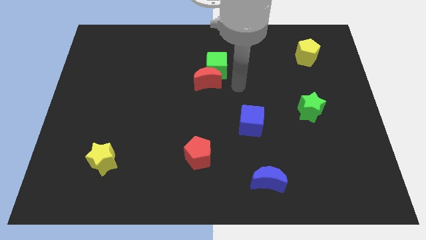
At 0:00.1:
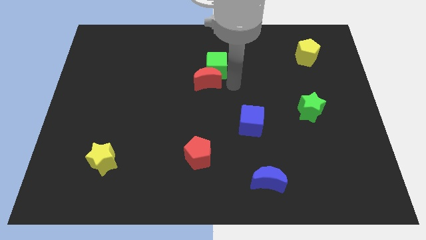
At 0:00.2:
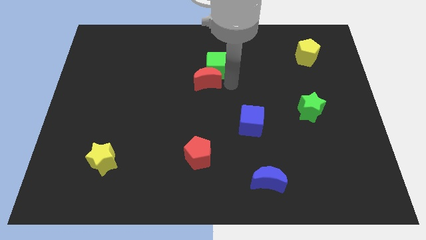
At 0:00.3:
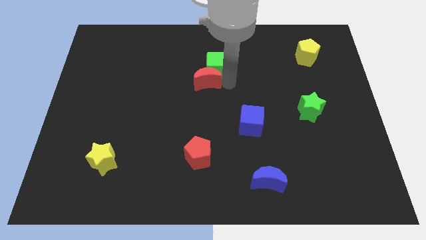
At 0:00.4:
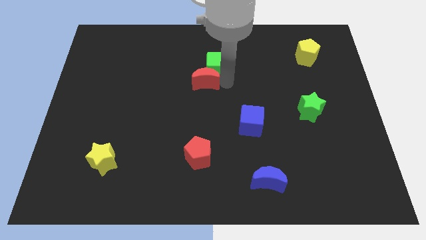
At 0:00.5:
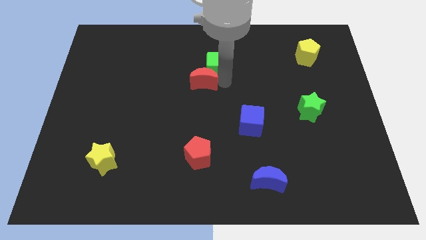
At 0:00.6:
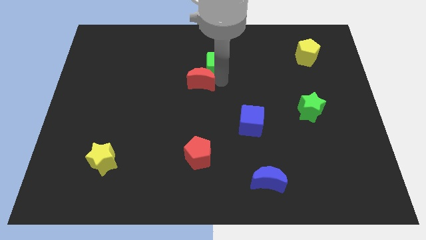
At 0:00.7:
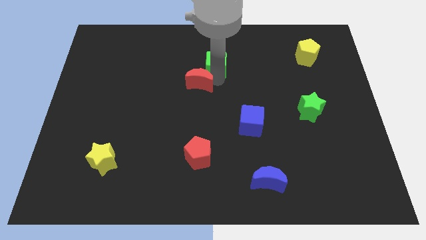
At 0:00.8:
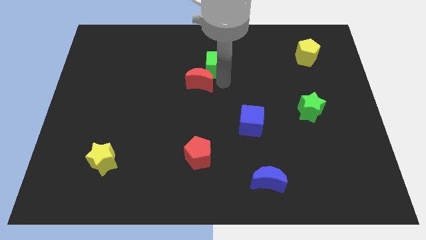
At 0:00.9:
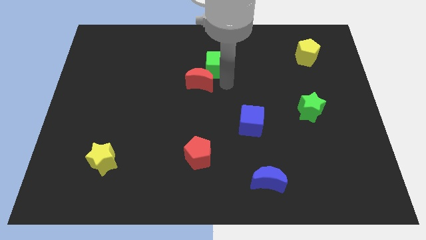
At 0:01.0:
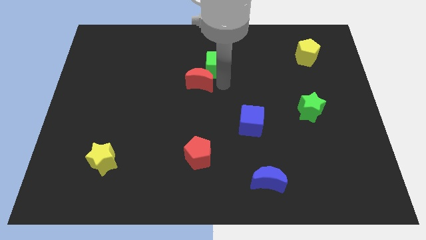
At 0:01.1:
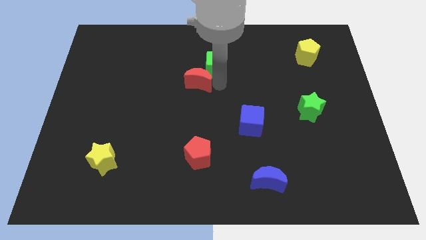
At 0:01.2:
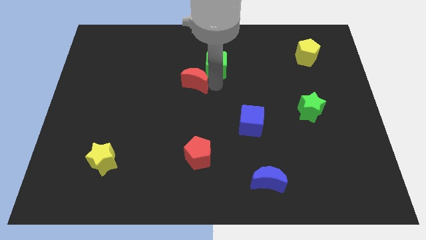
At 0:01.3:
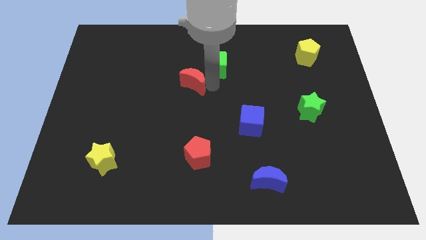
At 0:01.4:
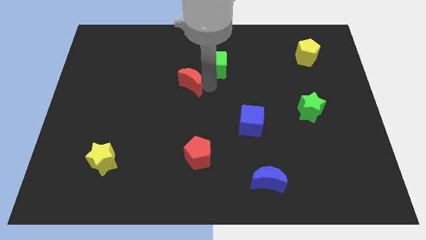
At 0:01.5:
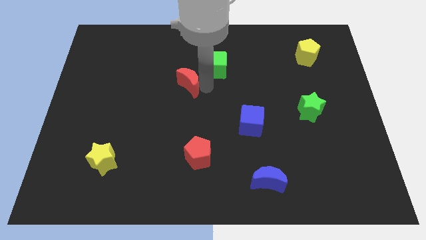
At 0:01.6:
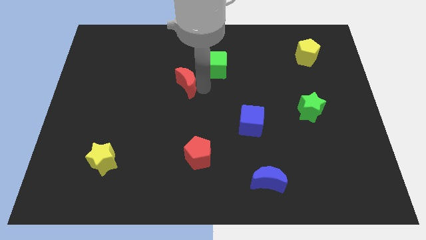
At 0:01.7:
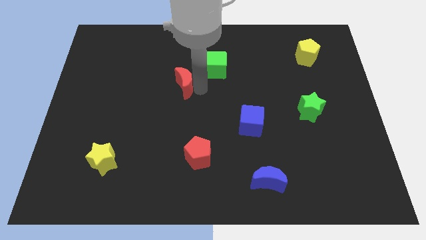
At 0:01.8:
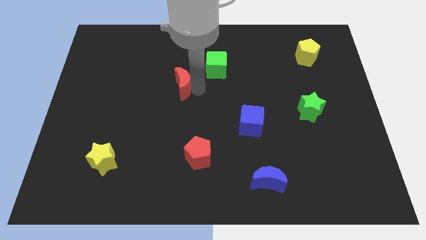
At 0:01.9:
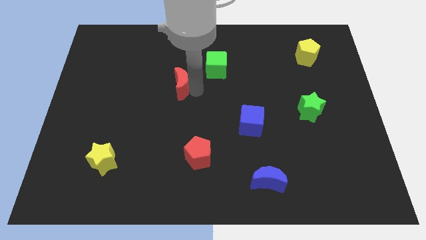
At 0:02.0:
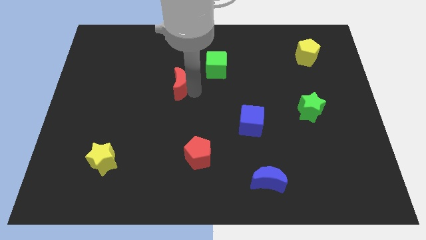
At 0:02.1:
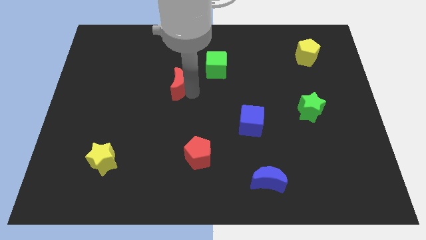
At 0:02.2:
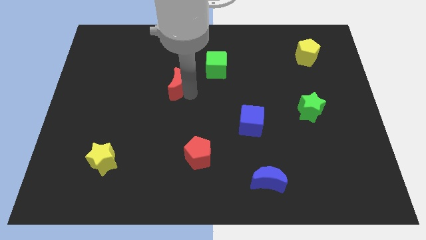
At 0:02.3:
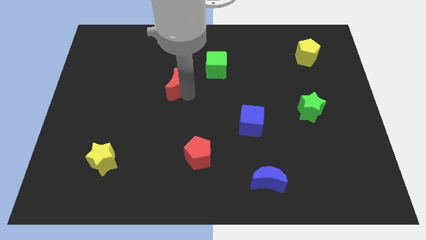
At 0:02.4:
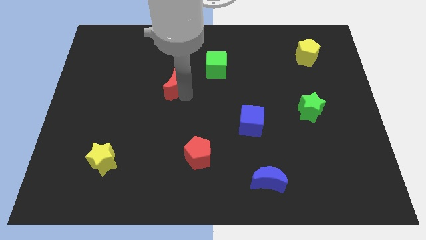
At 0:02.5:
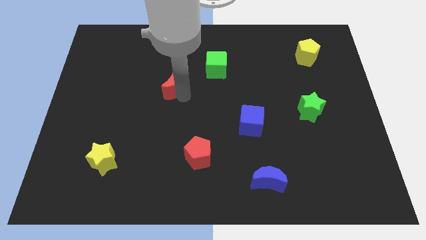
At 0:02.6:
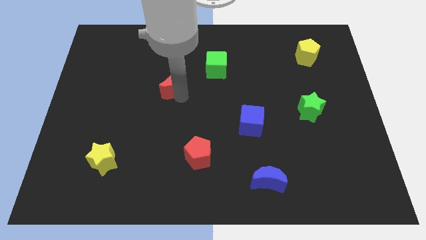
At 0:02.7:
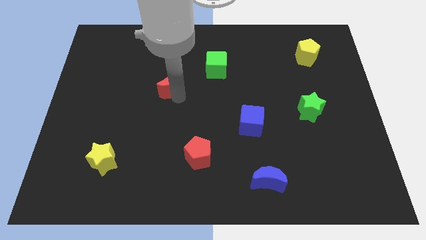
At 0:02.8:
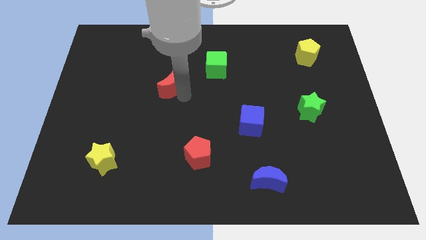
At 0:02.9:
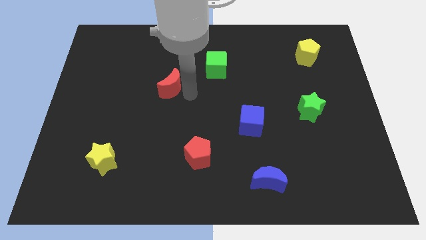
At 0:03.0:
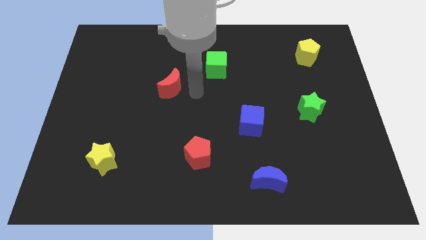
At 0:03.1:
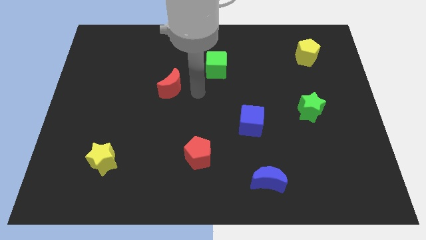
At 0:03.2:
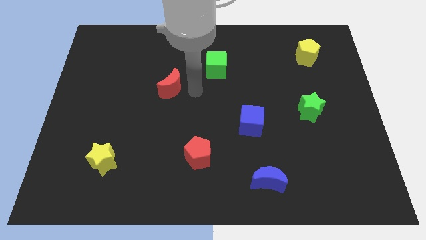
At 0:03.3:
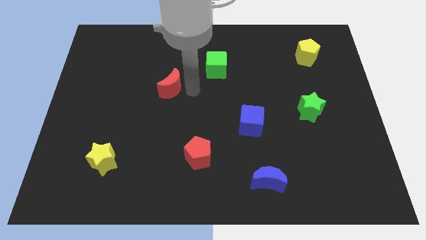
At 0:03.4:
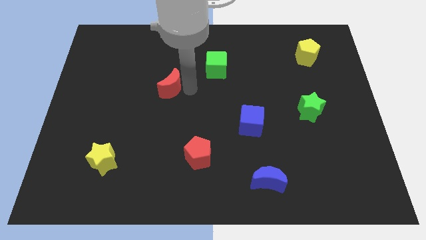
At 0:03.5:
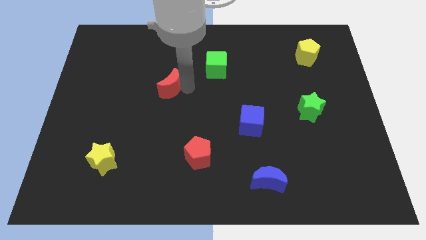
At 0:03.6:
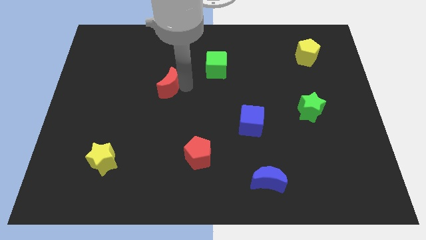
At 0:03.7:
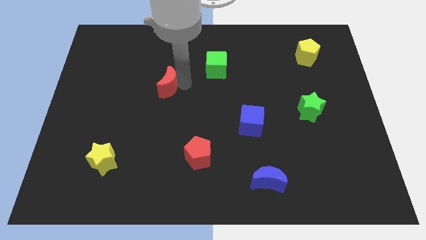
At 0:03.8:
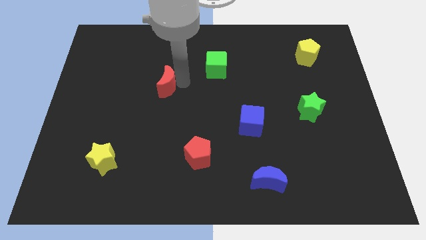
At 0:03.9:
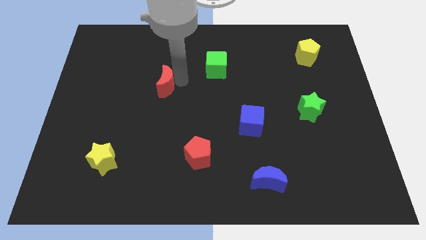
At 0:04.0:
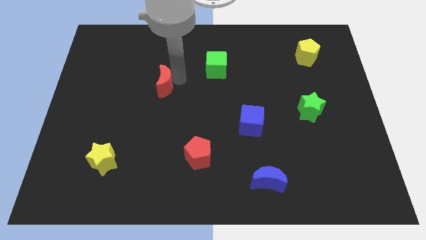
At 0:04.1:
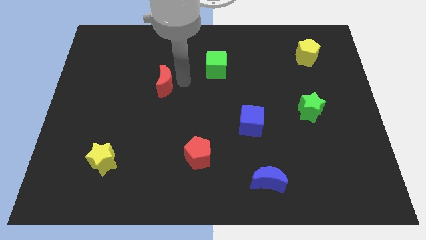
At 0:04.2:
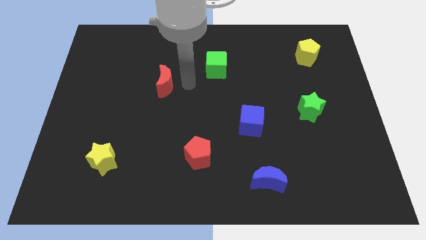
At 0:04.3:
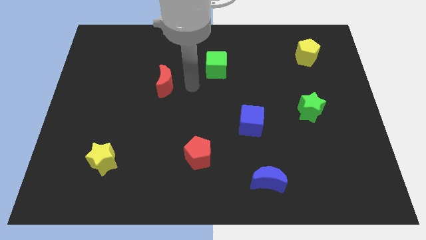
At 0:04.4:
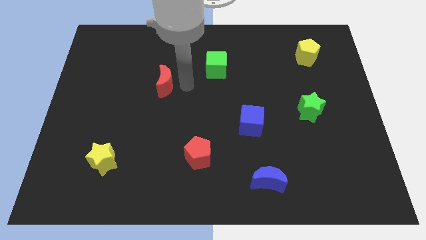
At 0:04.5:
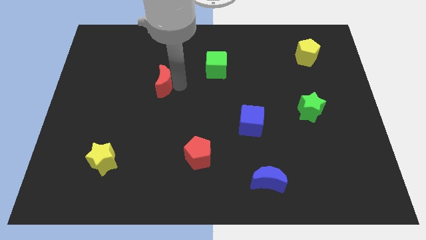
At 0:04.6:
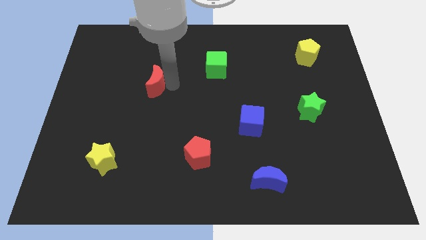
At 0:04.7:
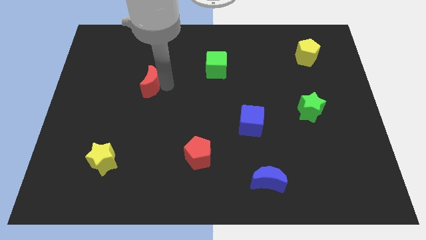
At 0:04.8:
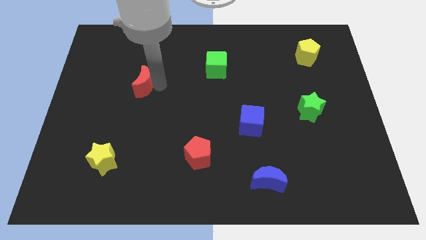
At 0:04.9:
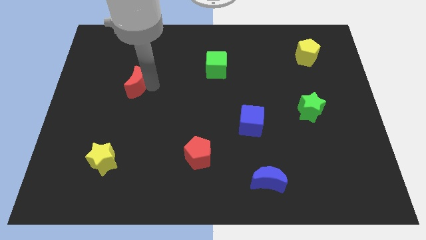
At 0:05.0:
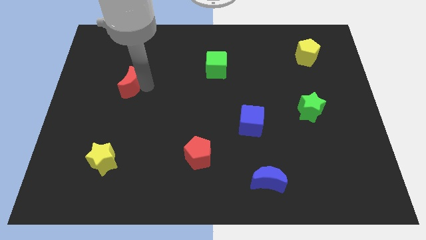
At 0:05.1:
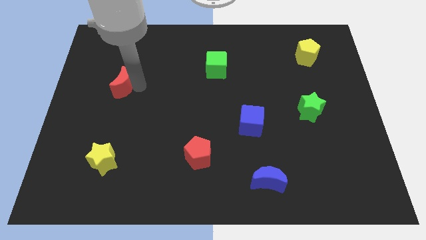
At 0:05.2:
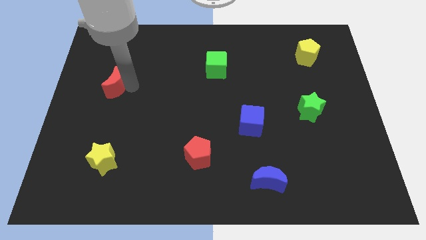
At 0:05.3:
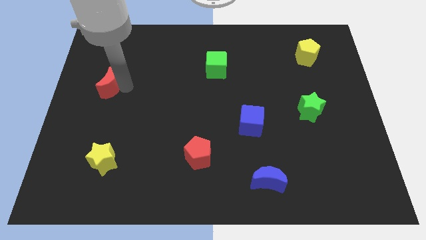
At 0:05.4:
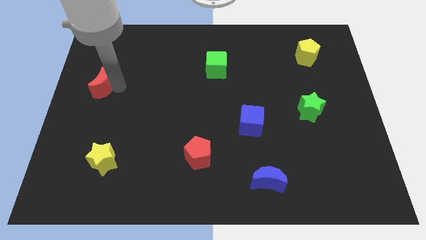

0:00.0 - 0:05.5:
slide the red moon to the left side

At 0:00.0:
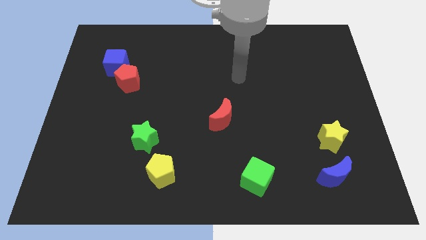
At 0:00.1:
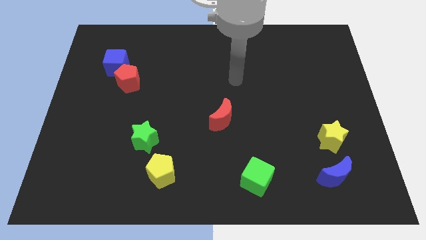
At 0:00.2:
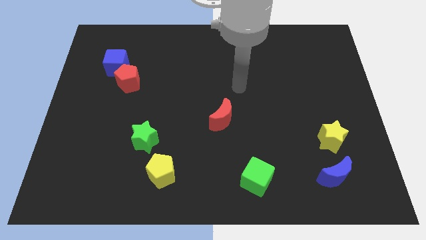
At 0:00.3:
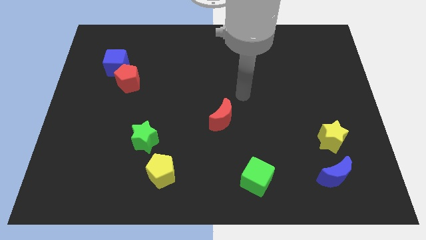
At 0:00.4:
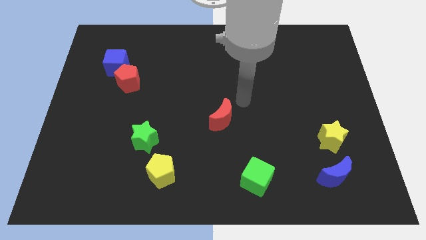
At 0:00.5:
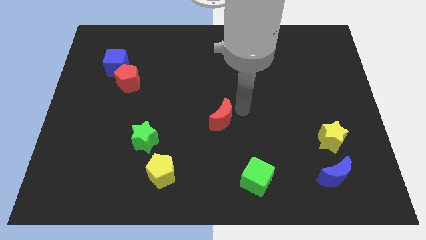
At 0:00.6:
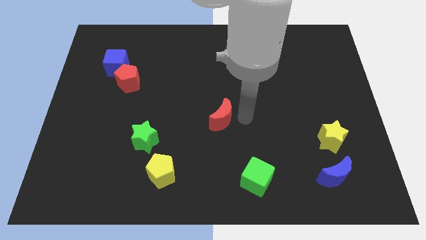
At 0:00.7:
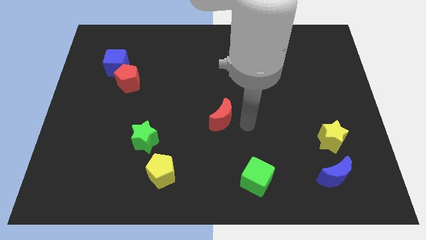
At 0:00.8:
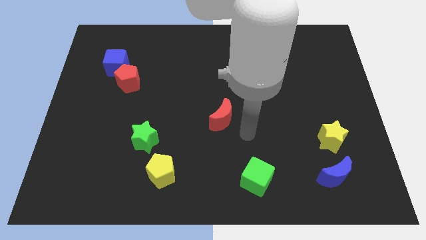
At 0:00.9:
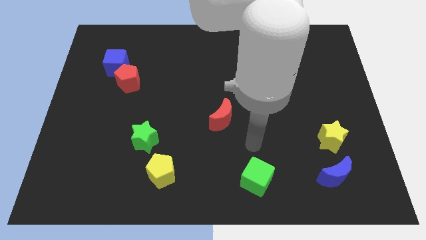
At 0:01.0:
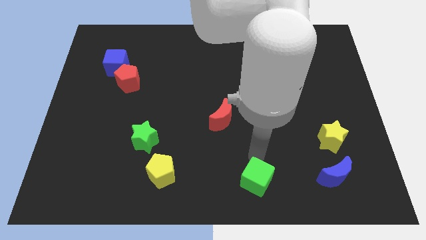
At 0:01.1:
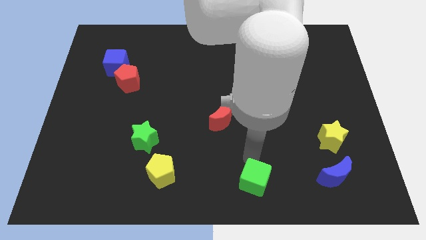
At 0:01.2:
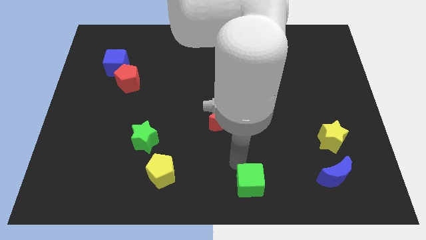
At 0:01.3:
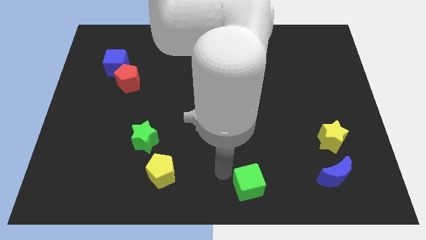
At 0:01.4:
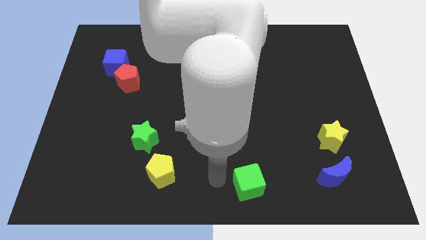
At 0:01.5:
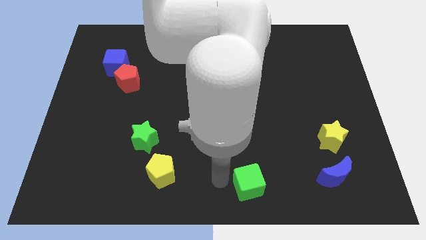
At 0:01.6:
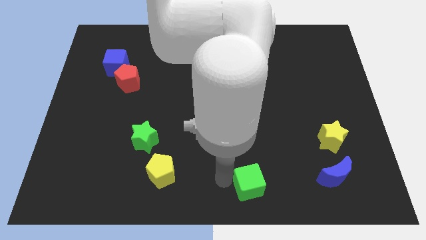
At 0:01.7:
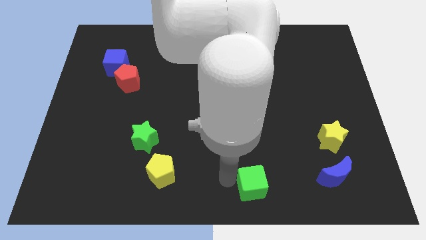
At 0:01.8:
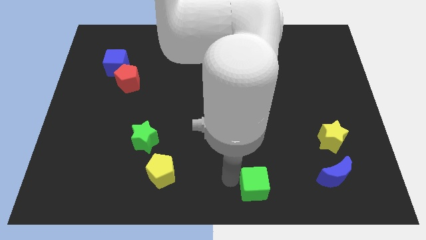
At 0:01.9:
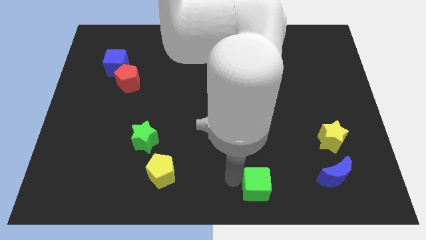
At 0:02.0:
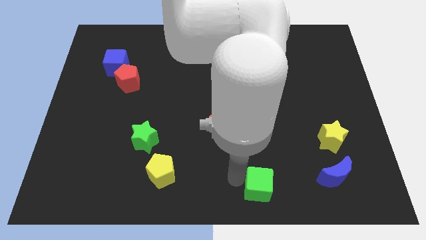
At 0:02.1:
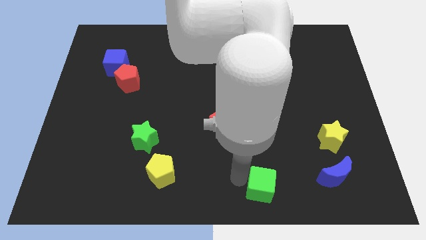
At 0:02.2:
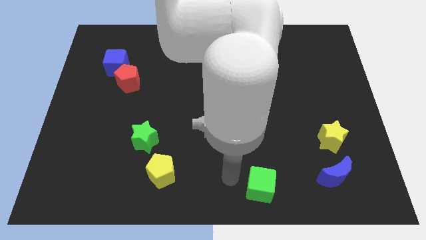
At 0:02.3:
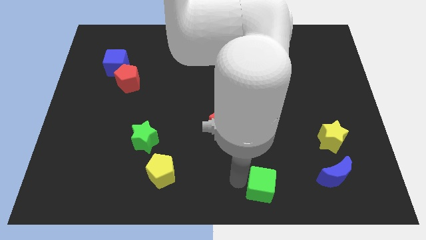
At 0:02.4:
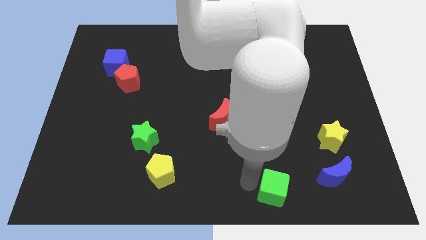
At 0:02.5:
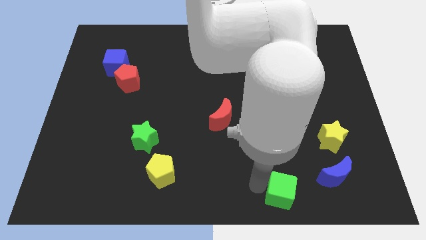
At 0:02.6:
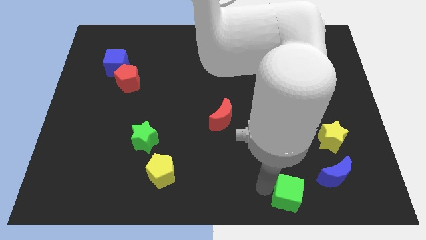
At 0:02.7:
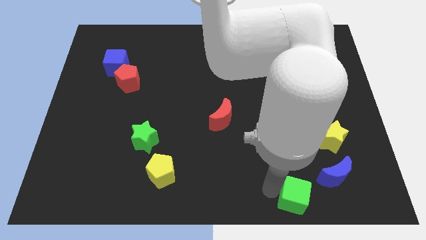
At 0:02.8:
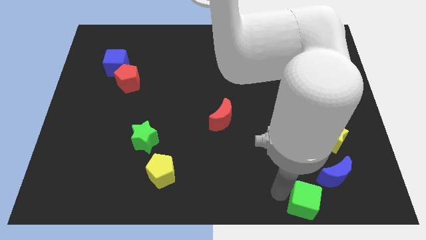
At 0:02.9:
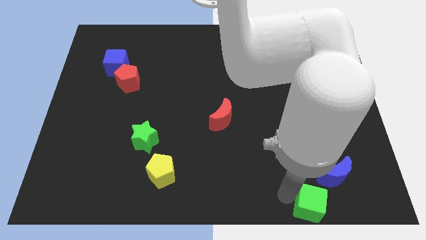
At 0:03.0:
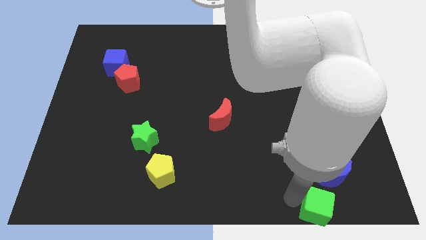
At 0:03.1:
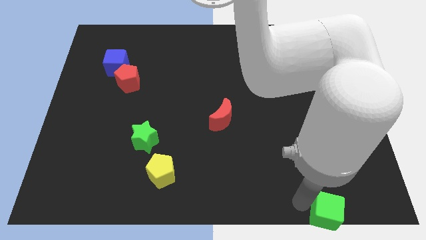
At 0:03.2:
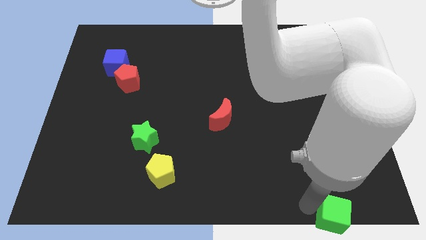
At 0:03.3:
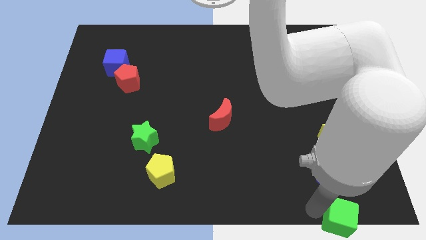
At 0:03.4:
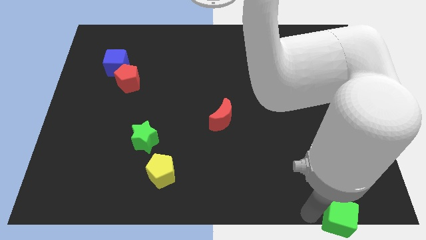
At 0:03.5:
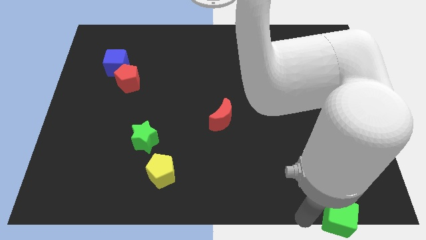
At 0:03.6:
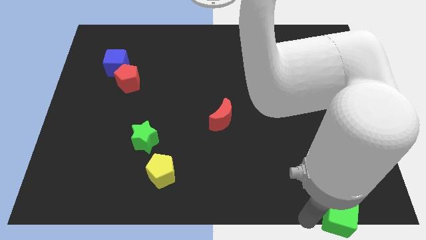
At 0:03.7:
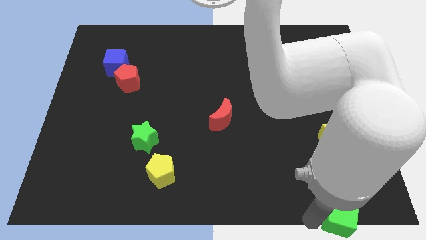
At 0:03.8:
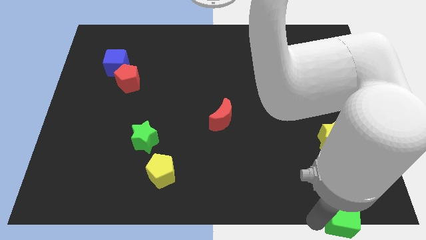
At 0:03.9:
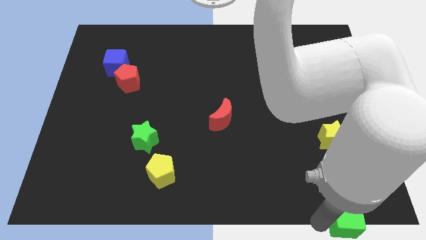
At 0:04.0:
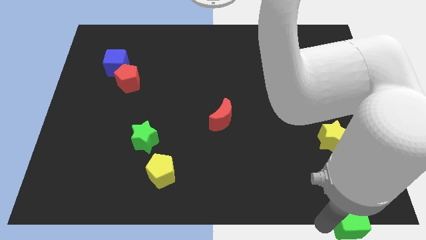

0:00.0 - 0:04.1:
put the green cube to the bottom right of the board
